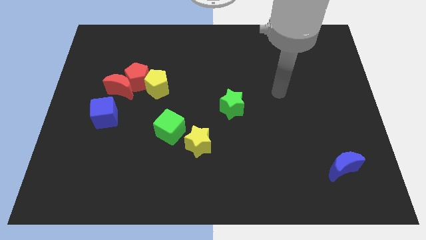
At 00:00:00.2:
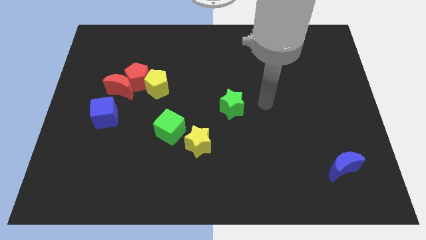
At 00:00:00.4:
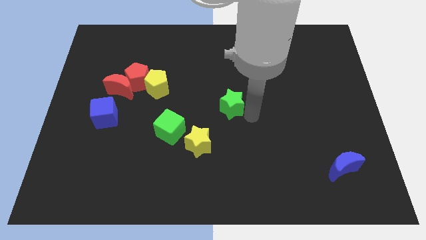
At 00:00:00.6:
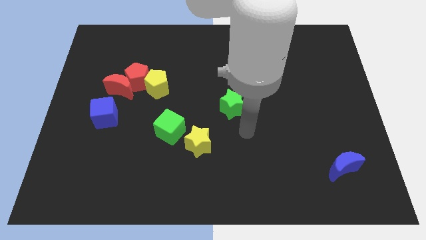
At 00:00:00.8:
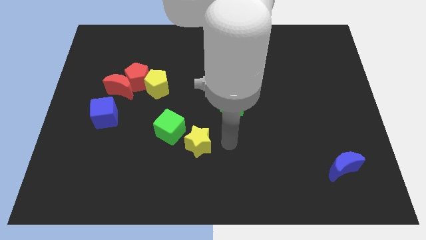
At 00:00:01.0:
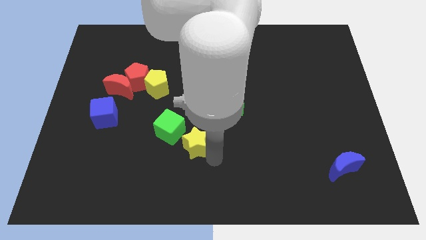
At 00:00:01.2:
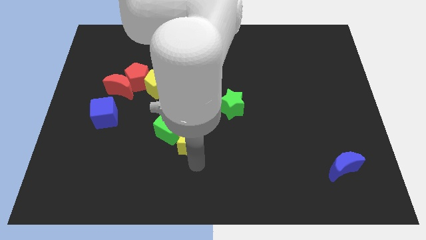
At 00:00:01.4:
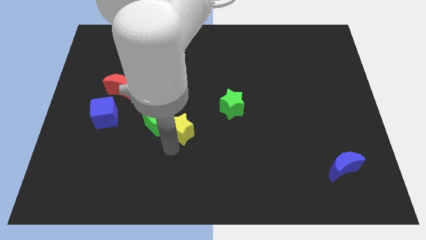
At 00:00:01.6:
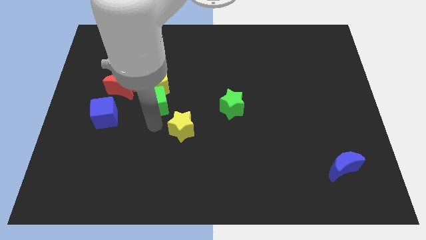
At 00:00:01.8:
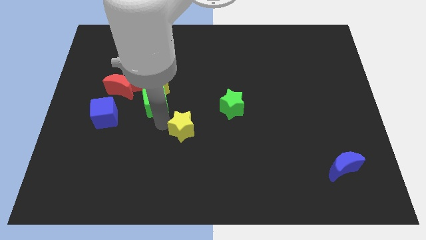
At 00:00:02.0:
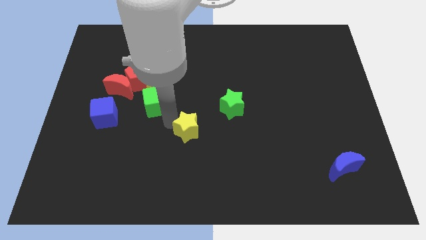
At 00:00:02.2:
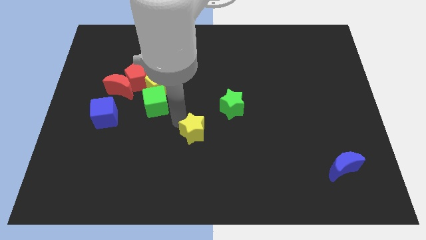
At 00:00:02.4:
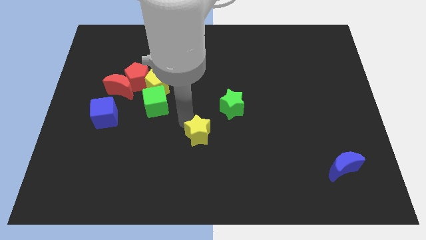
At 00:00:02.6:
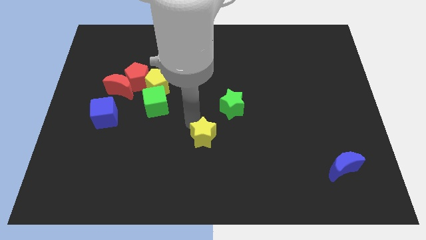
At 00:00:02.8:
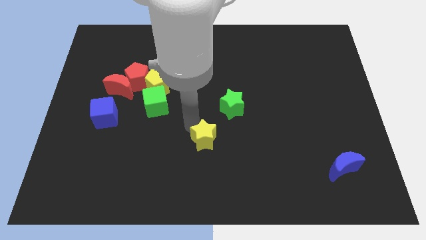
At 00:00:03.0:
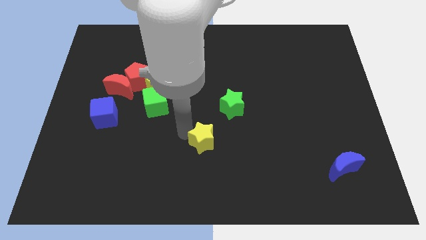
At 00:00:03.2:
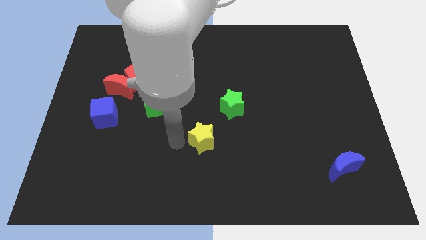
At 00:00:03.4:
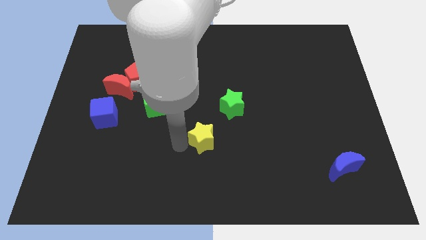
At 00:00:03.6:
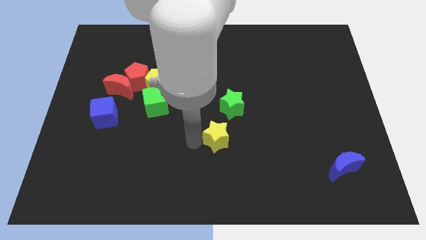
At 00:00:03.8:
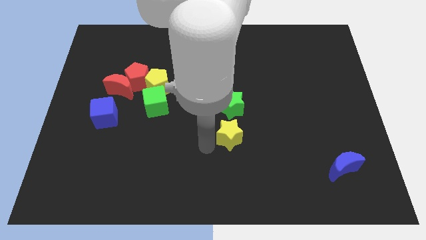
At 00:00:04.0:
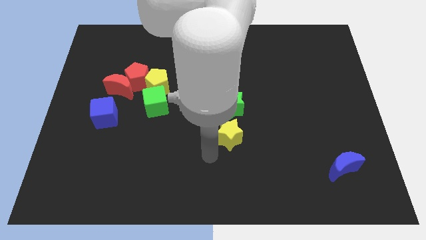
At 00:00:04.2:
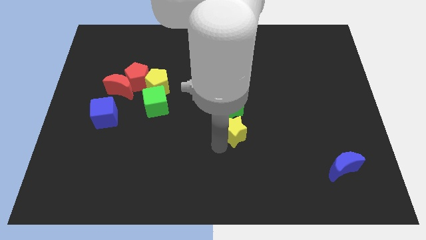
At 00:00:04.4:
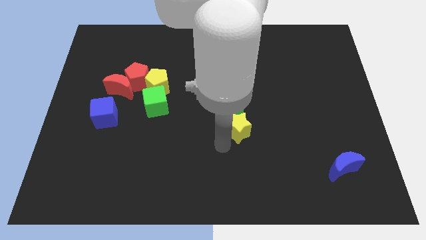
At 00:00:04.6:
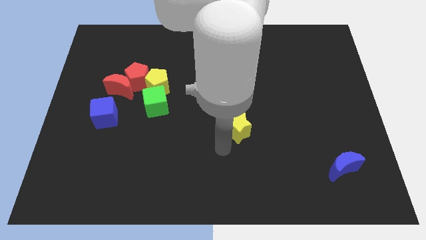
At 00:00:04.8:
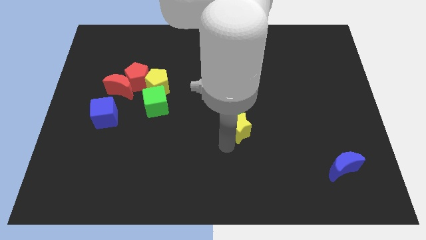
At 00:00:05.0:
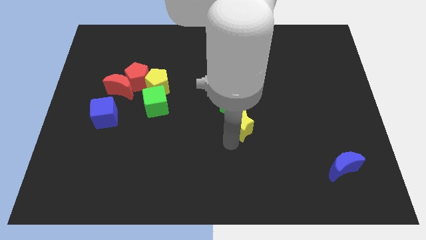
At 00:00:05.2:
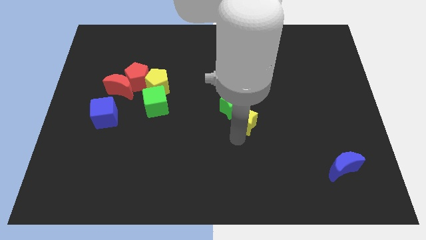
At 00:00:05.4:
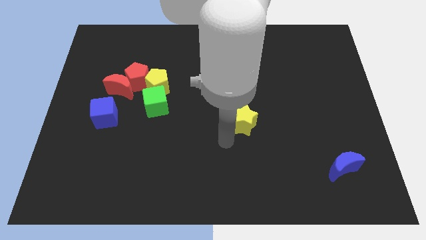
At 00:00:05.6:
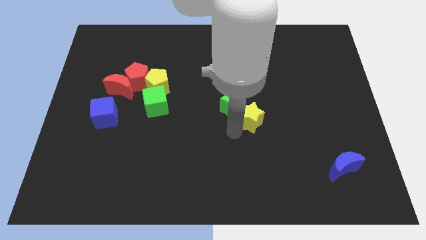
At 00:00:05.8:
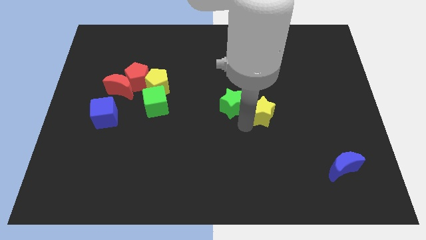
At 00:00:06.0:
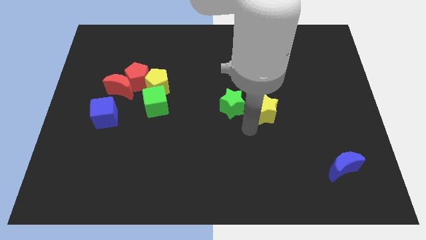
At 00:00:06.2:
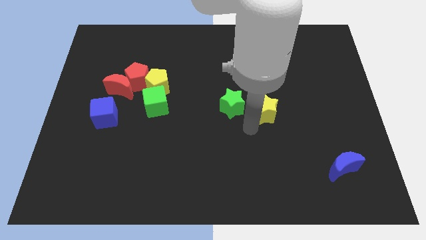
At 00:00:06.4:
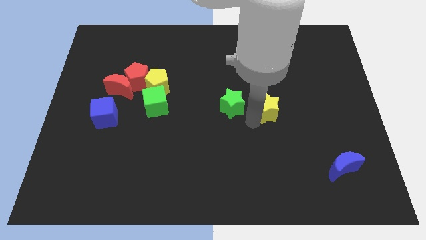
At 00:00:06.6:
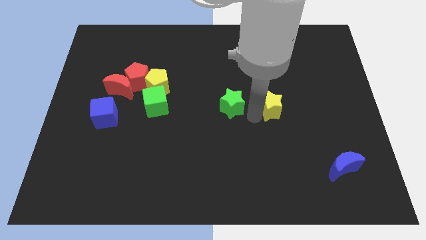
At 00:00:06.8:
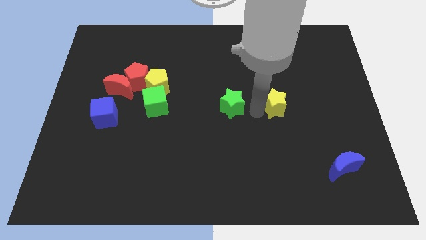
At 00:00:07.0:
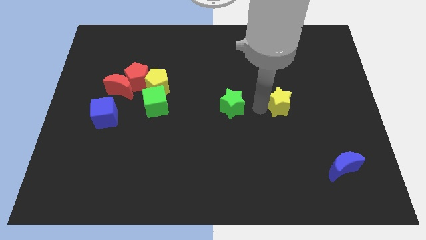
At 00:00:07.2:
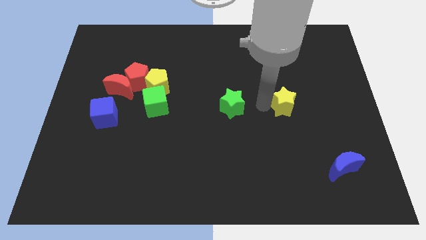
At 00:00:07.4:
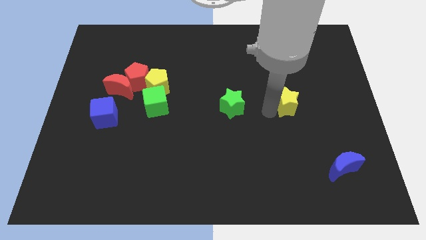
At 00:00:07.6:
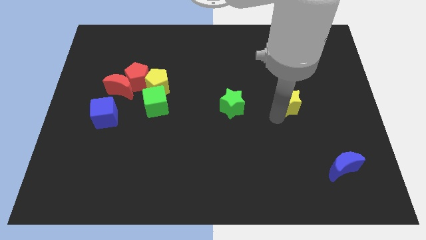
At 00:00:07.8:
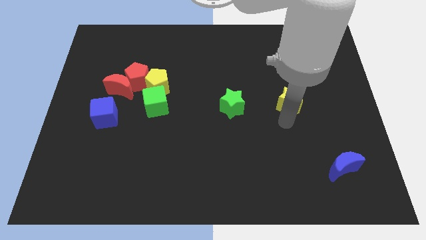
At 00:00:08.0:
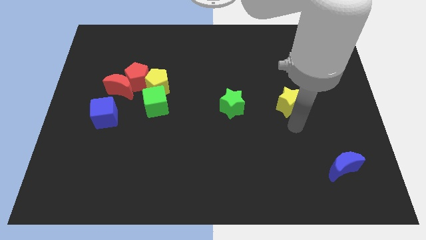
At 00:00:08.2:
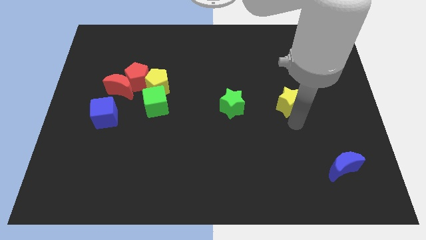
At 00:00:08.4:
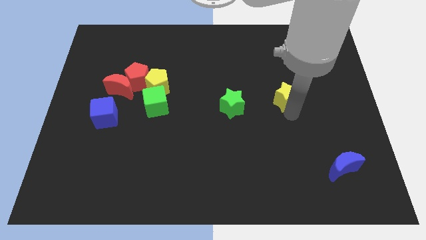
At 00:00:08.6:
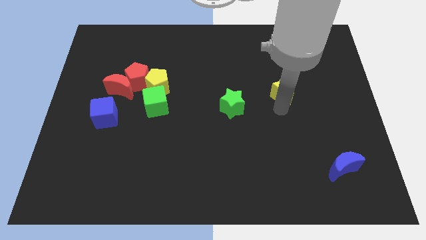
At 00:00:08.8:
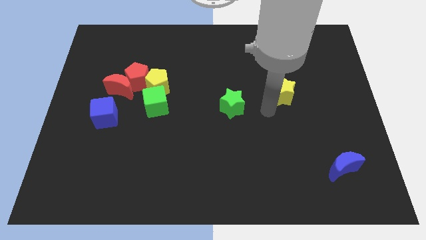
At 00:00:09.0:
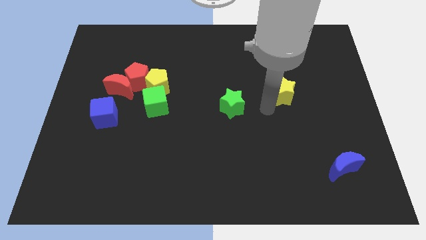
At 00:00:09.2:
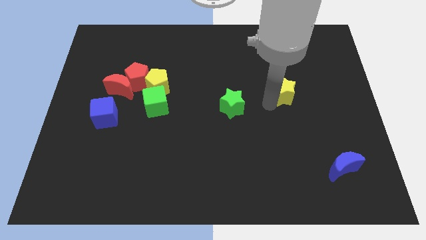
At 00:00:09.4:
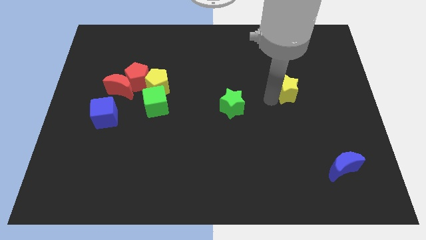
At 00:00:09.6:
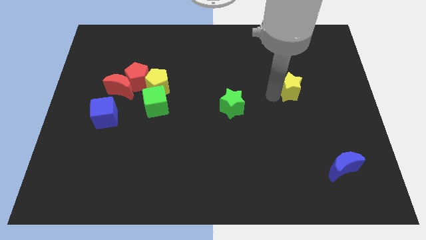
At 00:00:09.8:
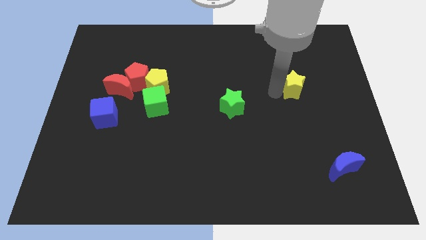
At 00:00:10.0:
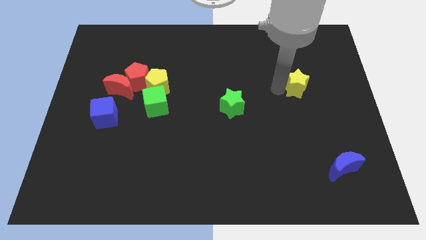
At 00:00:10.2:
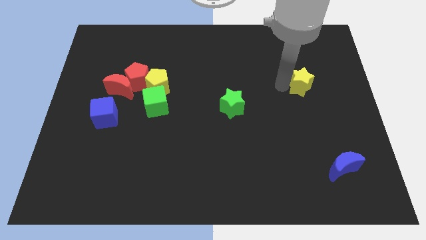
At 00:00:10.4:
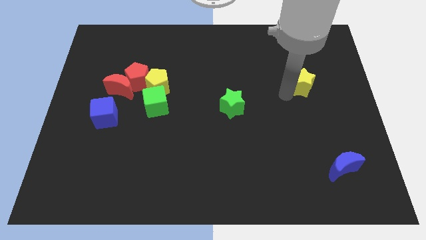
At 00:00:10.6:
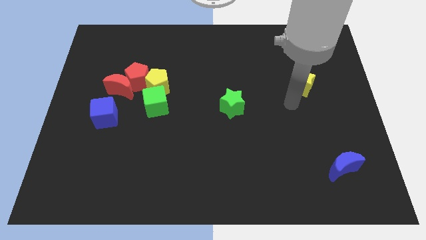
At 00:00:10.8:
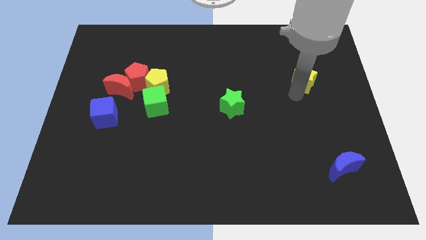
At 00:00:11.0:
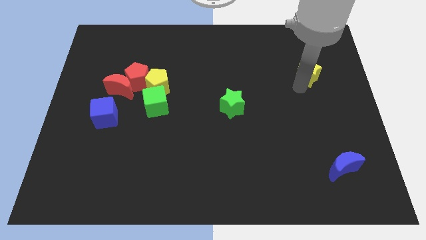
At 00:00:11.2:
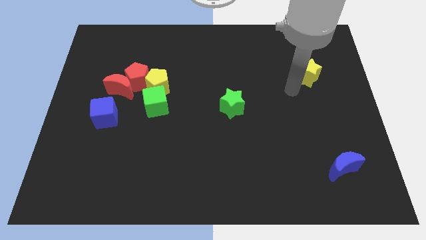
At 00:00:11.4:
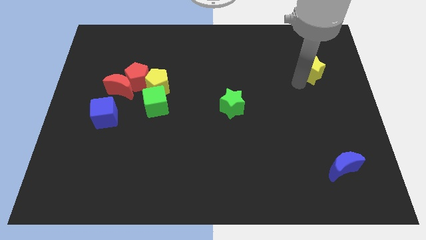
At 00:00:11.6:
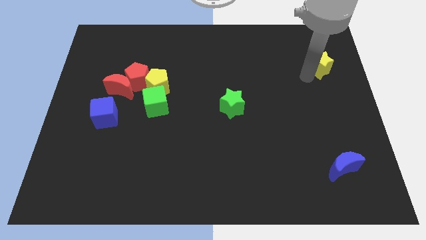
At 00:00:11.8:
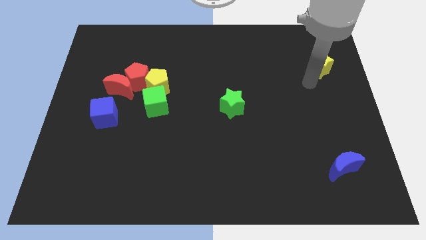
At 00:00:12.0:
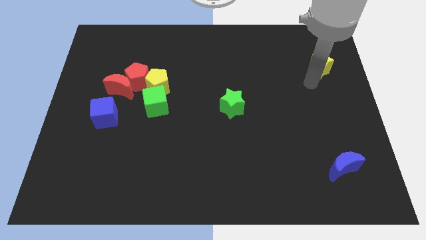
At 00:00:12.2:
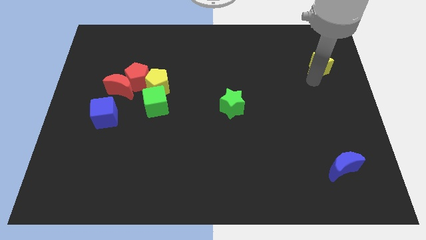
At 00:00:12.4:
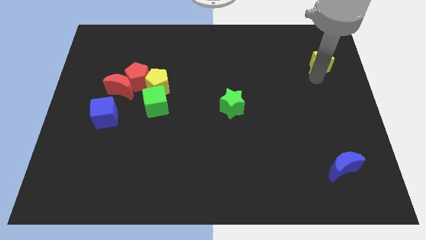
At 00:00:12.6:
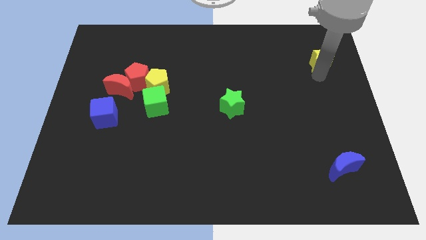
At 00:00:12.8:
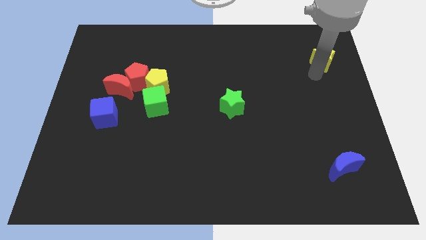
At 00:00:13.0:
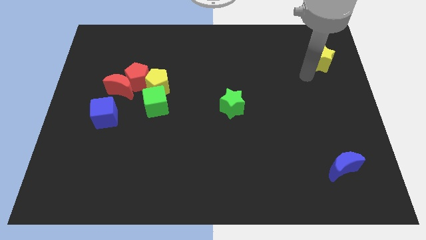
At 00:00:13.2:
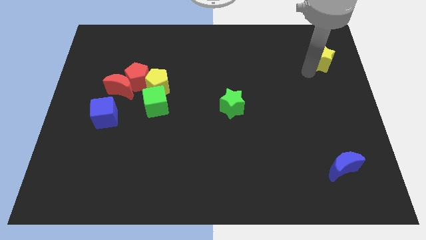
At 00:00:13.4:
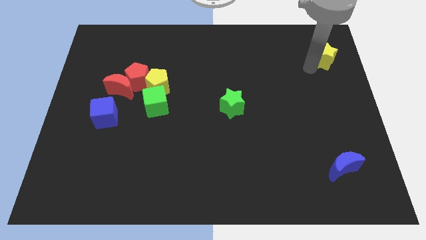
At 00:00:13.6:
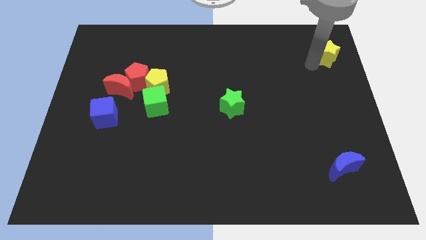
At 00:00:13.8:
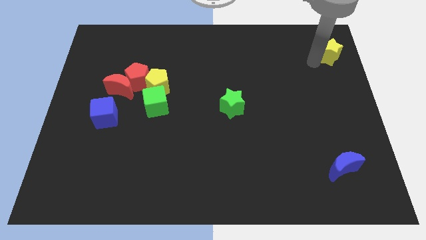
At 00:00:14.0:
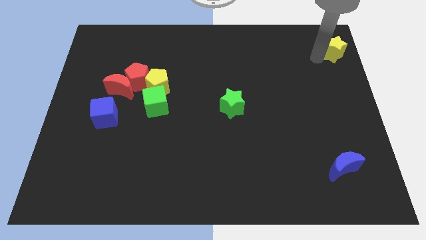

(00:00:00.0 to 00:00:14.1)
put the yellow star to the top right
